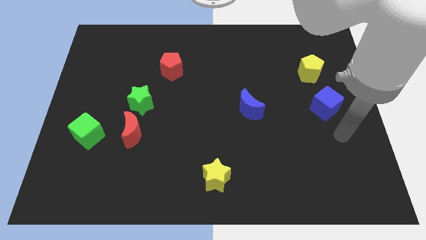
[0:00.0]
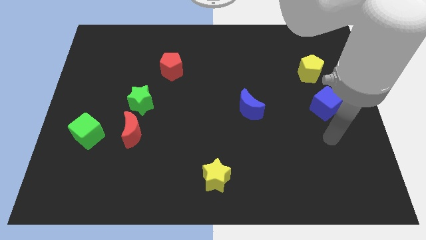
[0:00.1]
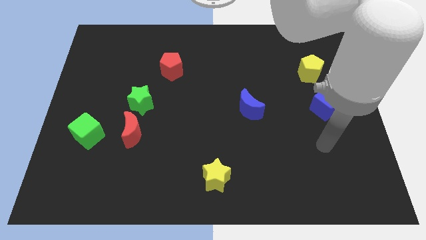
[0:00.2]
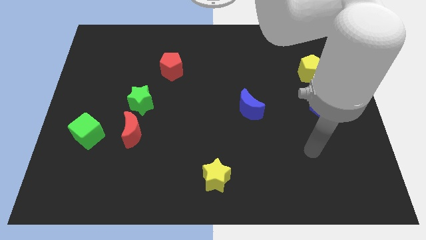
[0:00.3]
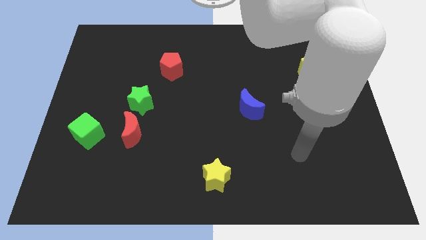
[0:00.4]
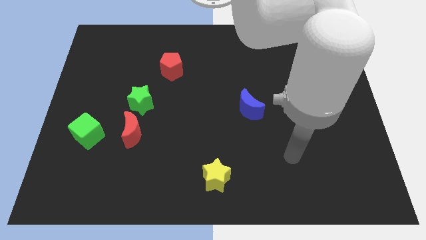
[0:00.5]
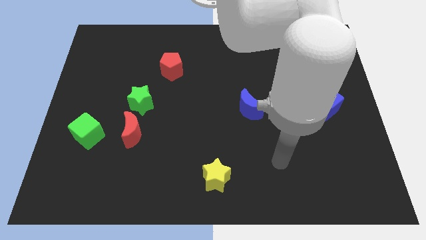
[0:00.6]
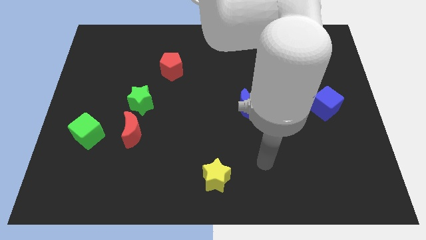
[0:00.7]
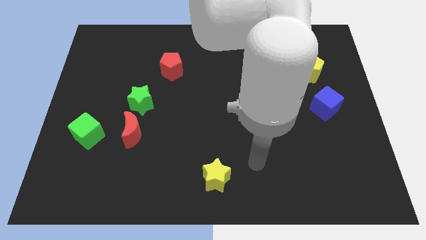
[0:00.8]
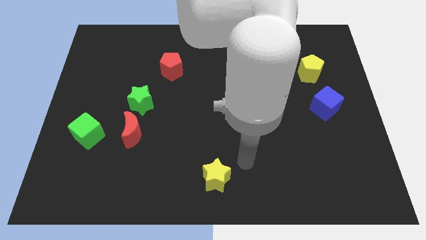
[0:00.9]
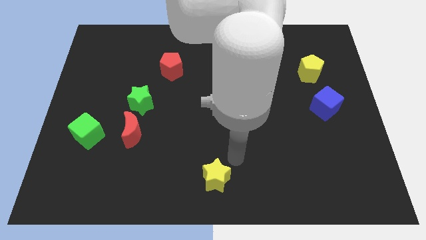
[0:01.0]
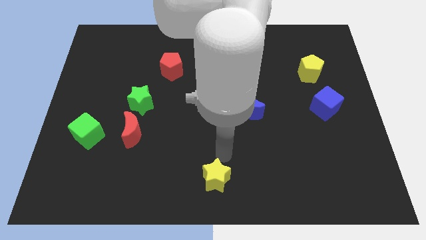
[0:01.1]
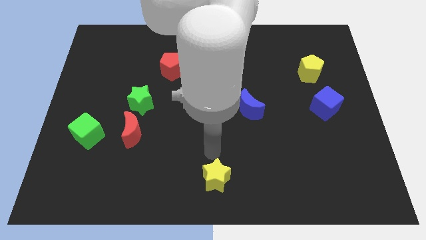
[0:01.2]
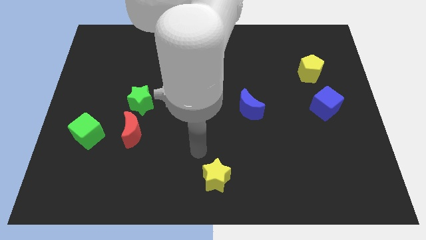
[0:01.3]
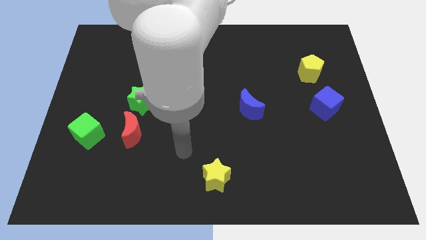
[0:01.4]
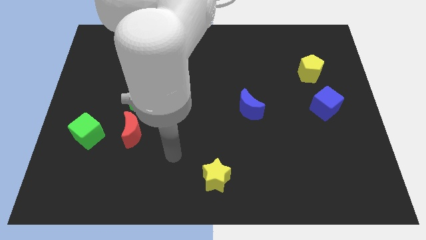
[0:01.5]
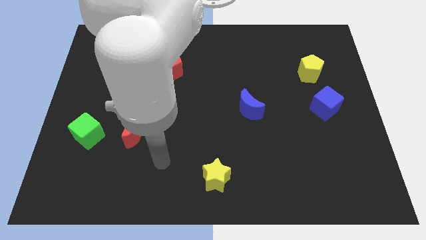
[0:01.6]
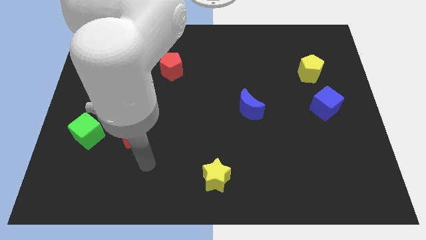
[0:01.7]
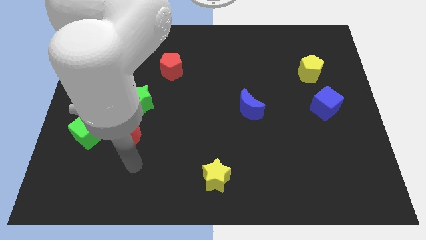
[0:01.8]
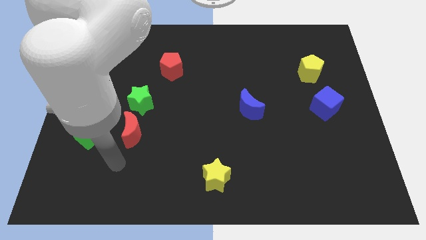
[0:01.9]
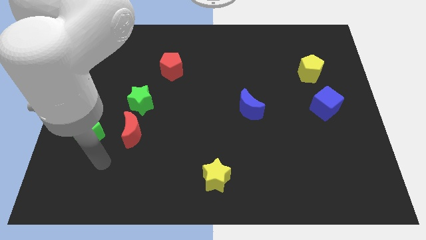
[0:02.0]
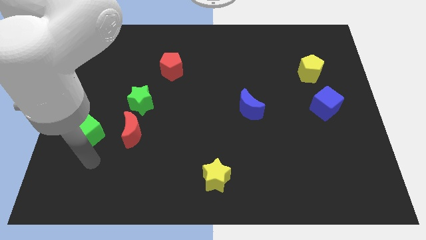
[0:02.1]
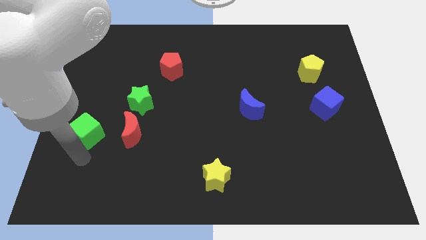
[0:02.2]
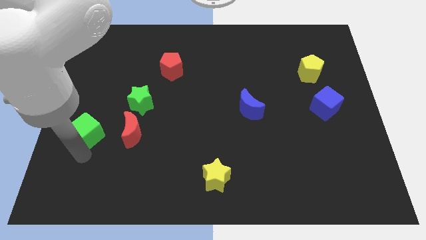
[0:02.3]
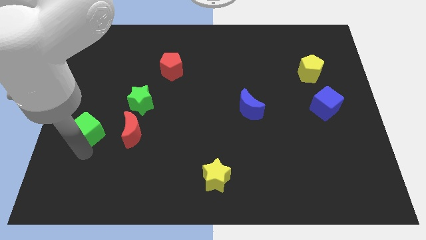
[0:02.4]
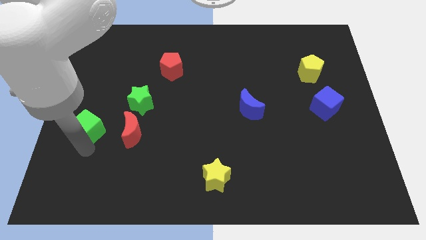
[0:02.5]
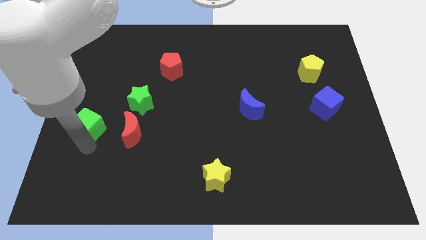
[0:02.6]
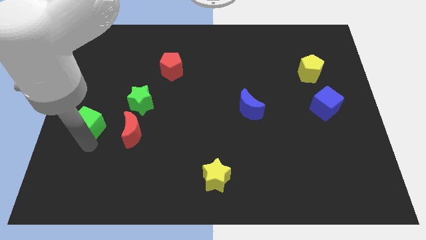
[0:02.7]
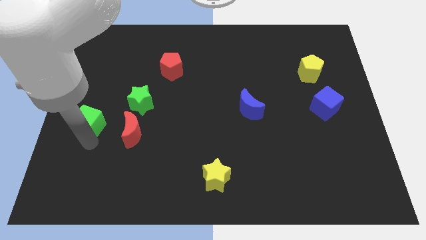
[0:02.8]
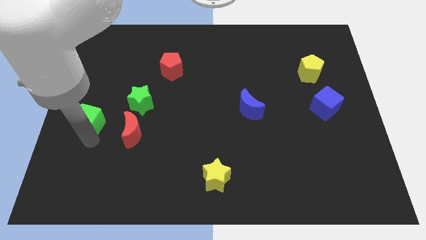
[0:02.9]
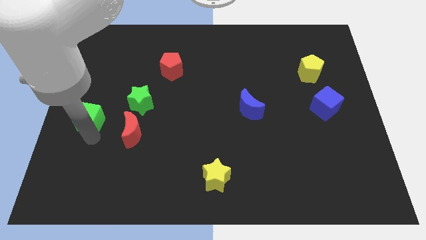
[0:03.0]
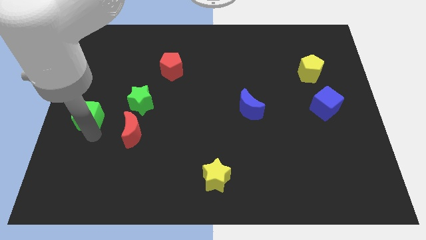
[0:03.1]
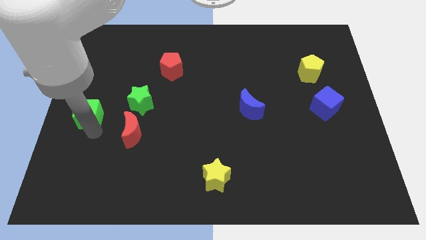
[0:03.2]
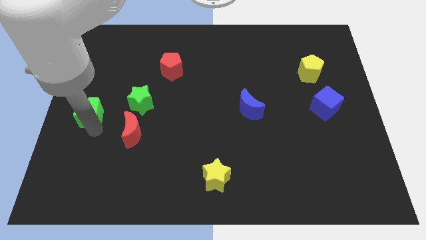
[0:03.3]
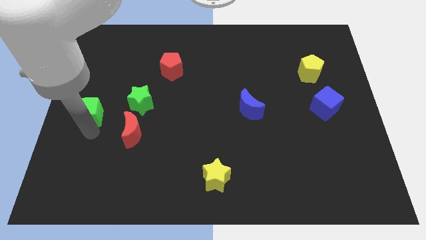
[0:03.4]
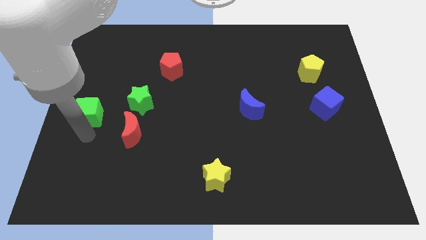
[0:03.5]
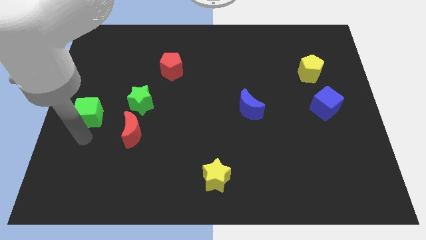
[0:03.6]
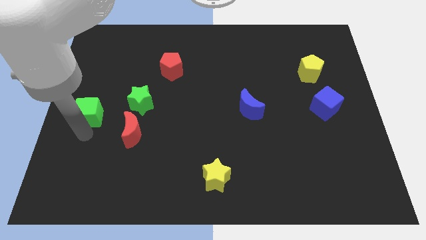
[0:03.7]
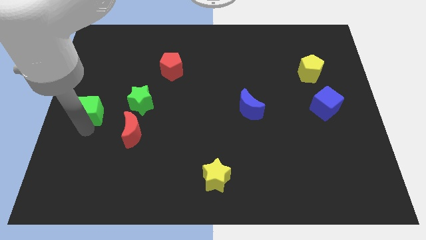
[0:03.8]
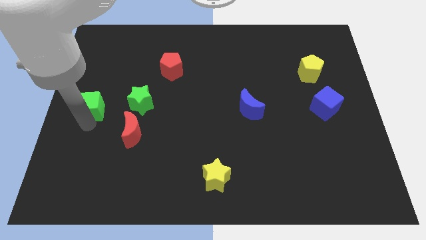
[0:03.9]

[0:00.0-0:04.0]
slightly move the green cube upwards

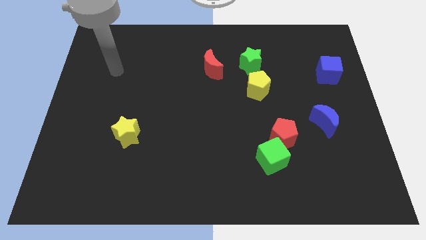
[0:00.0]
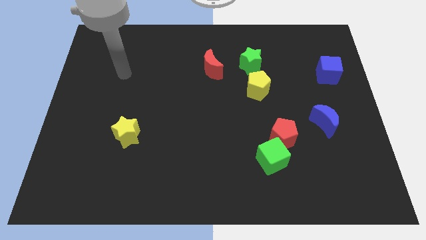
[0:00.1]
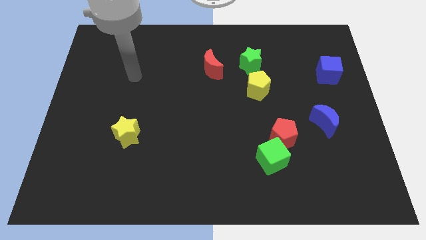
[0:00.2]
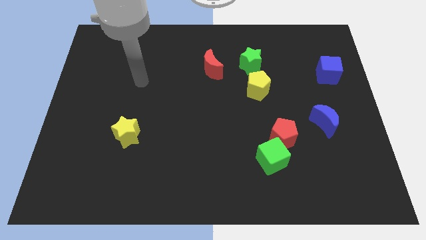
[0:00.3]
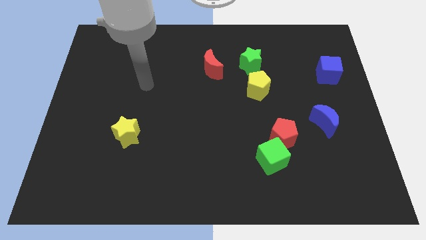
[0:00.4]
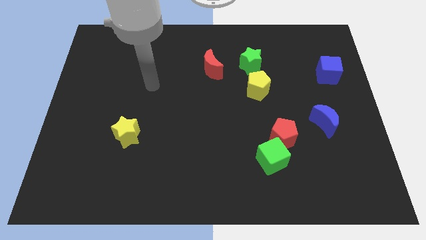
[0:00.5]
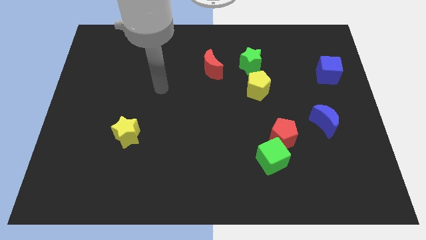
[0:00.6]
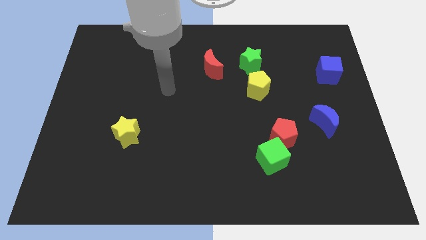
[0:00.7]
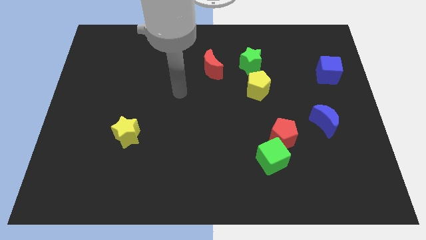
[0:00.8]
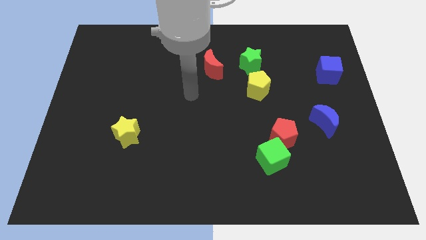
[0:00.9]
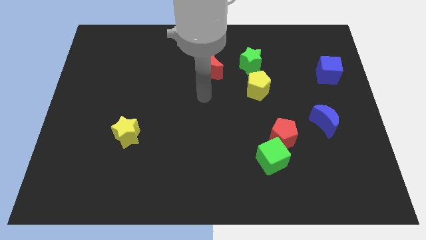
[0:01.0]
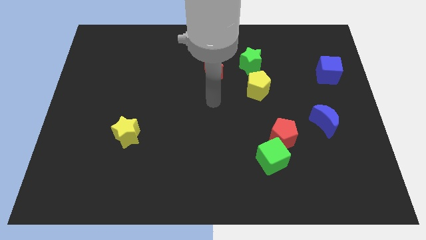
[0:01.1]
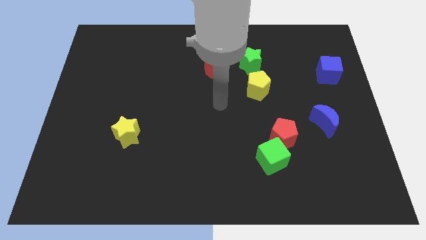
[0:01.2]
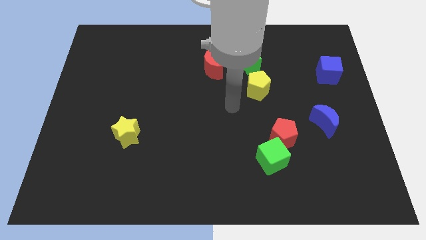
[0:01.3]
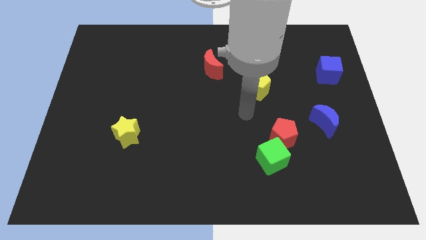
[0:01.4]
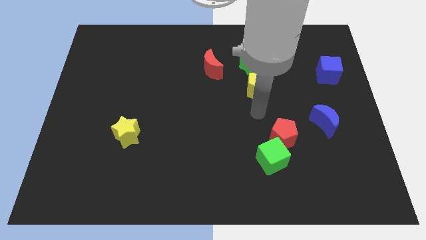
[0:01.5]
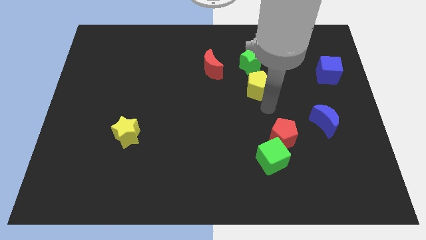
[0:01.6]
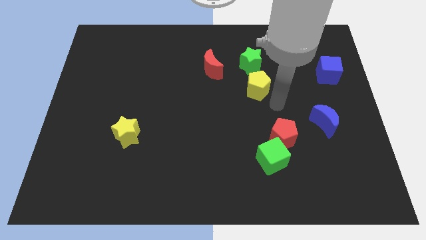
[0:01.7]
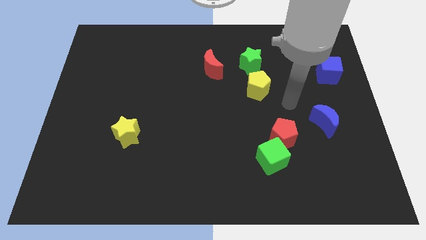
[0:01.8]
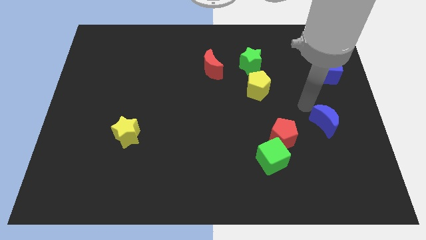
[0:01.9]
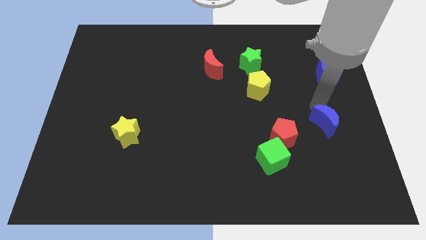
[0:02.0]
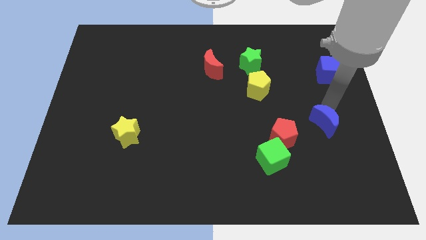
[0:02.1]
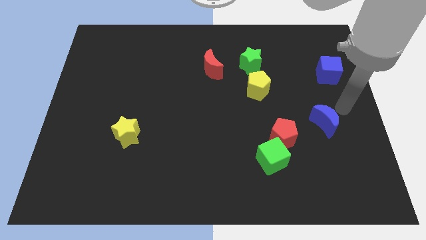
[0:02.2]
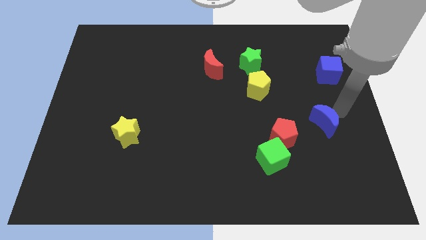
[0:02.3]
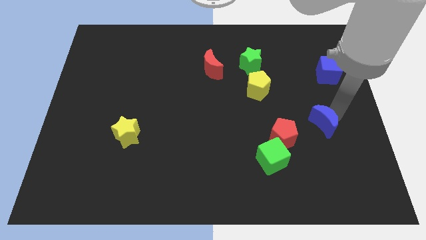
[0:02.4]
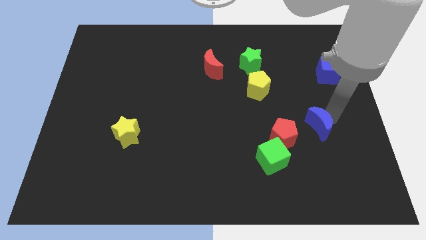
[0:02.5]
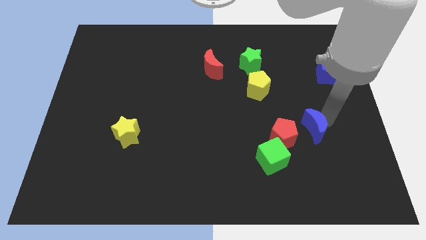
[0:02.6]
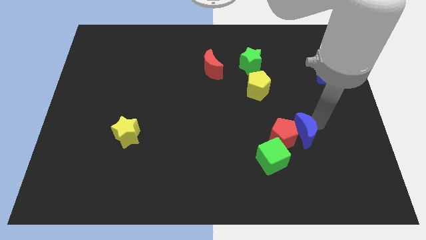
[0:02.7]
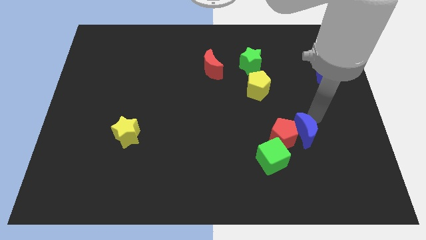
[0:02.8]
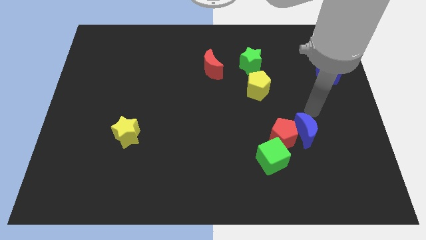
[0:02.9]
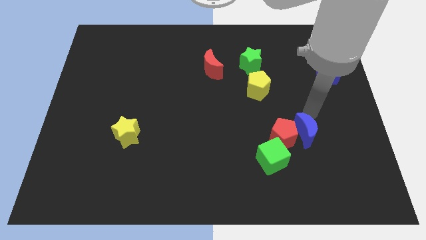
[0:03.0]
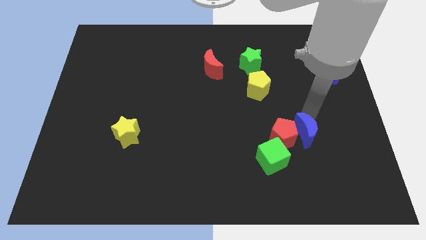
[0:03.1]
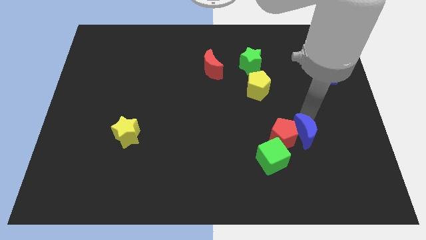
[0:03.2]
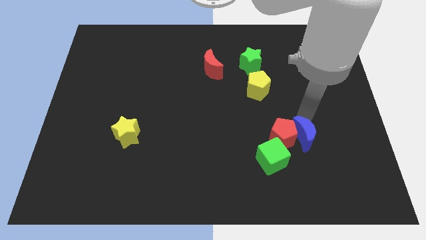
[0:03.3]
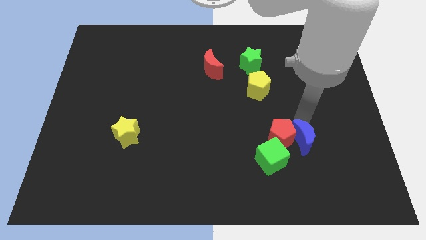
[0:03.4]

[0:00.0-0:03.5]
move the blue moon downwards and then left a little

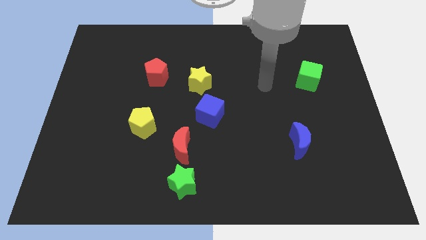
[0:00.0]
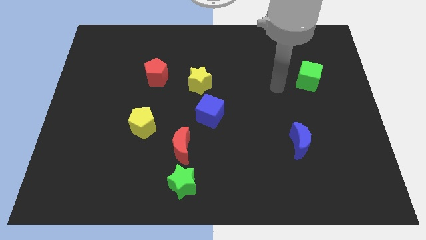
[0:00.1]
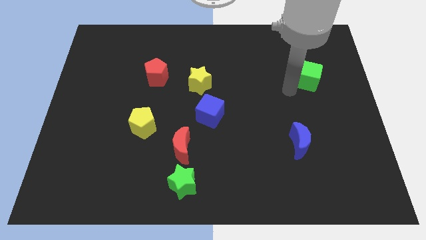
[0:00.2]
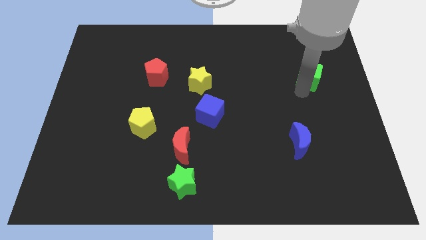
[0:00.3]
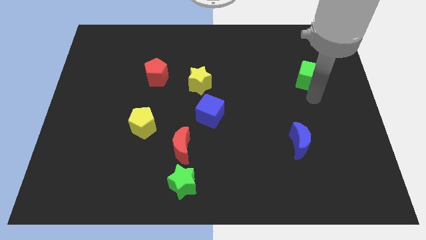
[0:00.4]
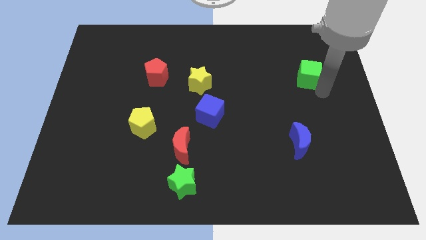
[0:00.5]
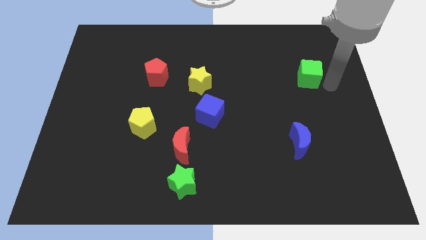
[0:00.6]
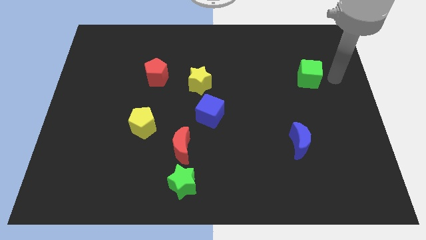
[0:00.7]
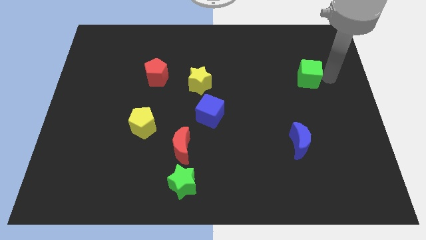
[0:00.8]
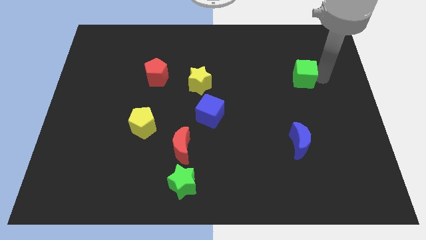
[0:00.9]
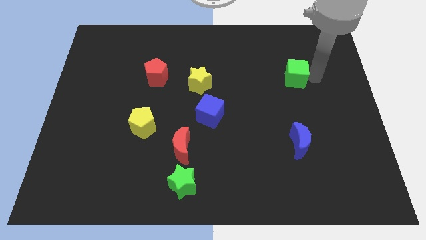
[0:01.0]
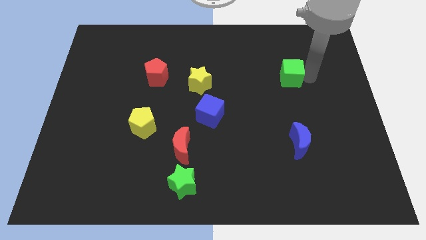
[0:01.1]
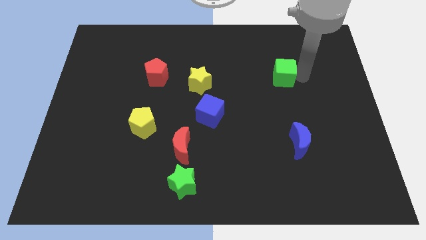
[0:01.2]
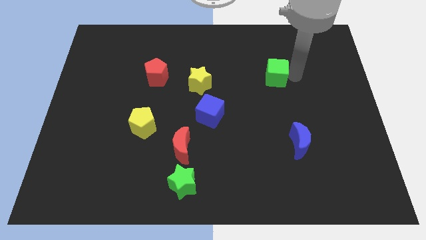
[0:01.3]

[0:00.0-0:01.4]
move the green cube a bit left
